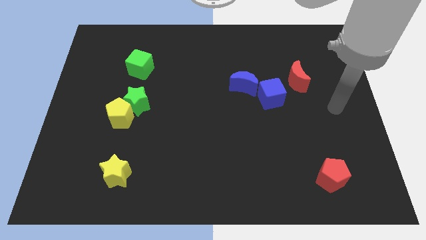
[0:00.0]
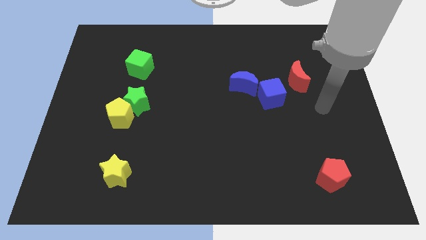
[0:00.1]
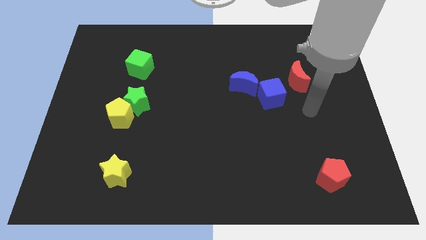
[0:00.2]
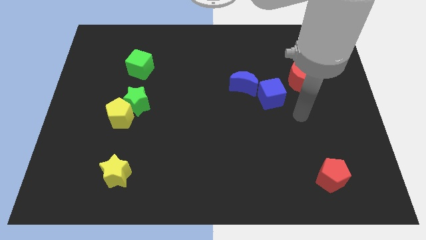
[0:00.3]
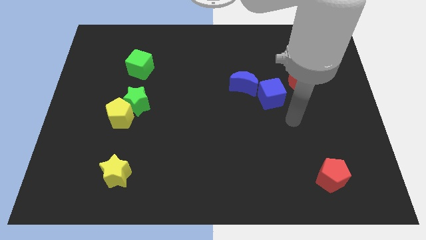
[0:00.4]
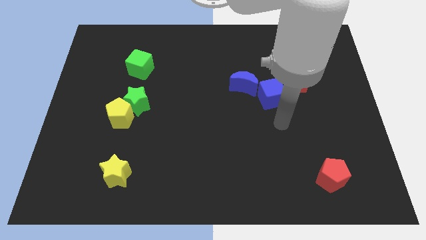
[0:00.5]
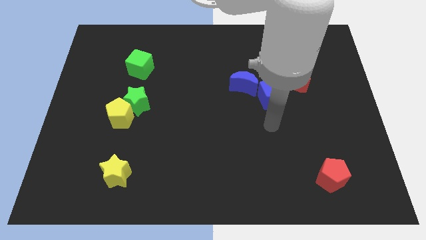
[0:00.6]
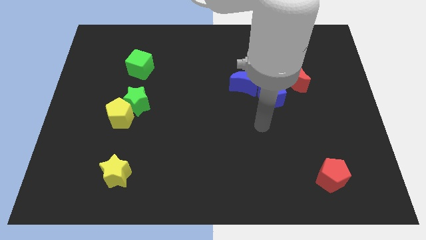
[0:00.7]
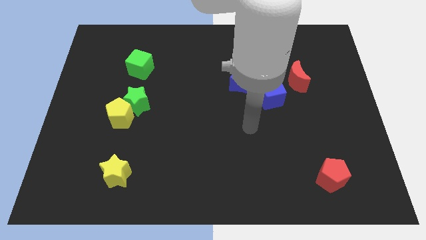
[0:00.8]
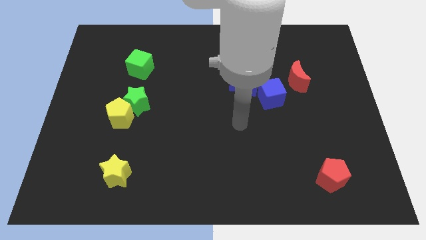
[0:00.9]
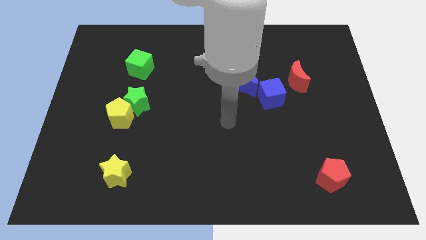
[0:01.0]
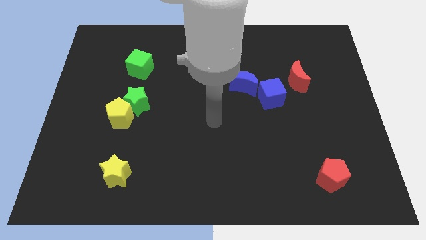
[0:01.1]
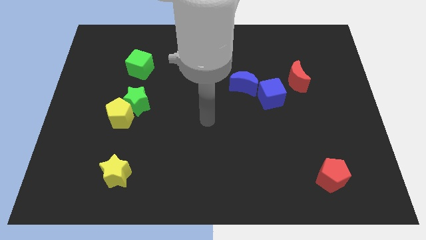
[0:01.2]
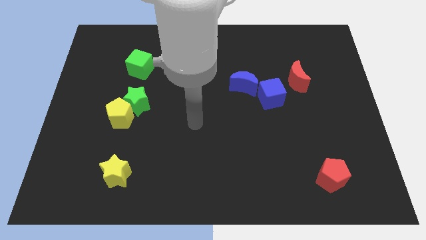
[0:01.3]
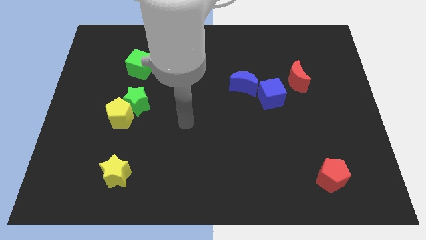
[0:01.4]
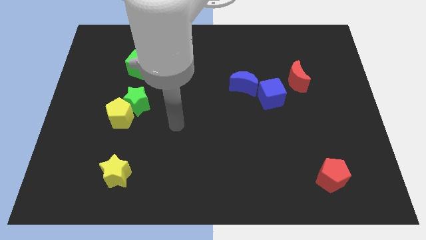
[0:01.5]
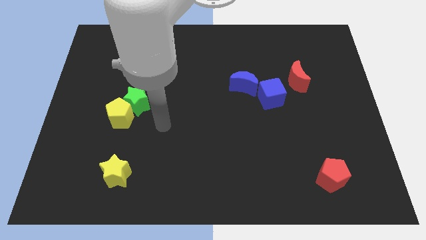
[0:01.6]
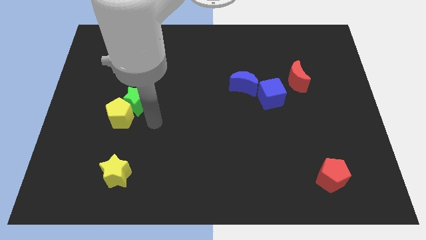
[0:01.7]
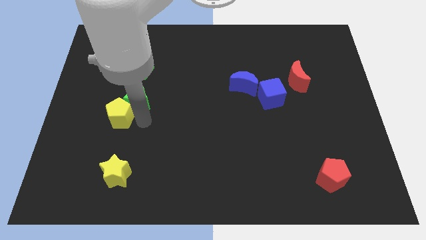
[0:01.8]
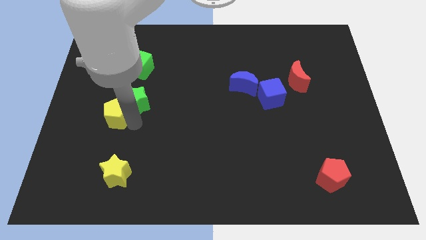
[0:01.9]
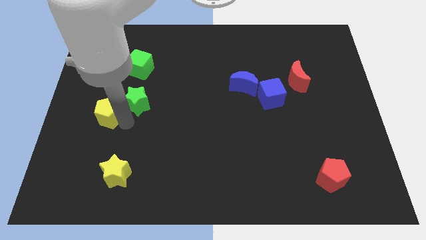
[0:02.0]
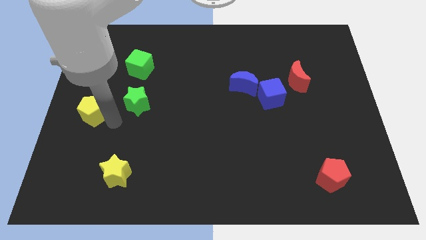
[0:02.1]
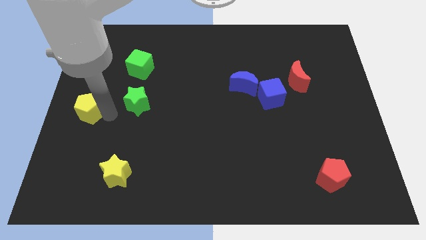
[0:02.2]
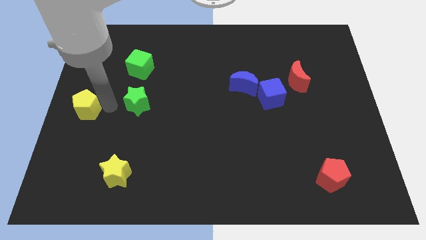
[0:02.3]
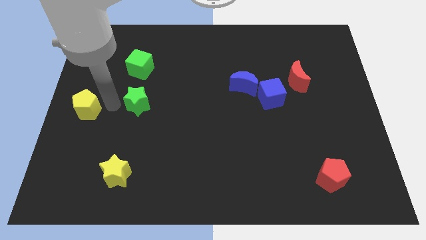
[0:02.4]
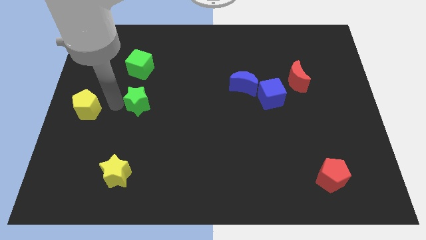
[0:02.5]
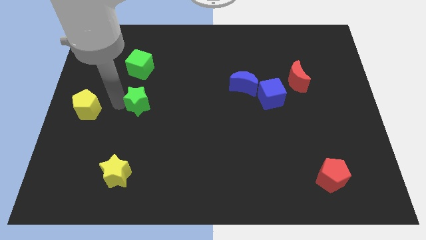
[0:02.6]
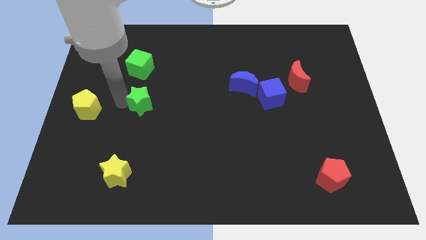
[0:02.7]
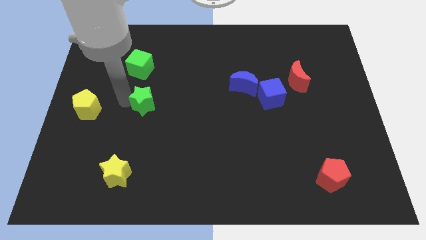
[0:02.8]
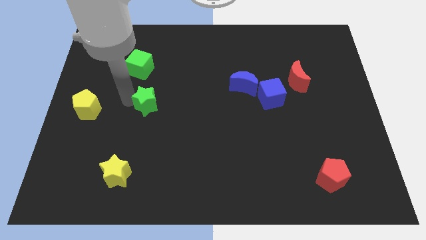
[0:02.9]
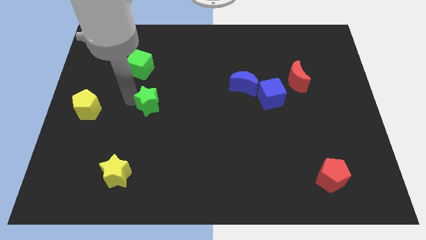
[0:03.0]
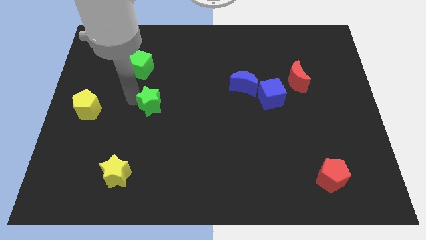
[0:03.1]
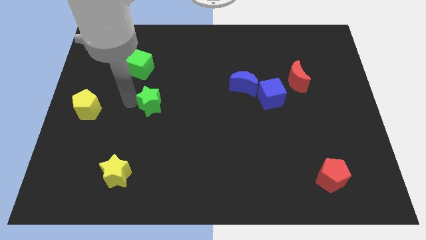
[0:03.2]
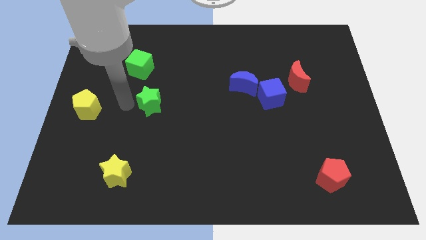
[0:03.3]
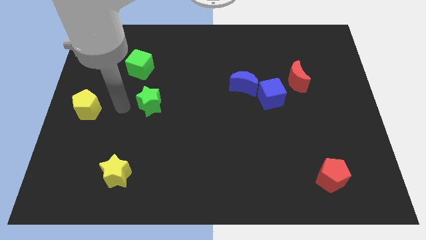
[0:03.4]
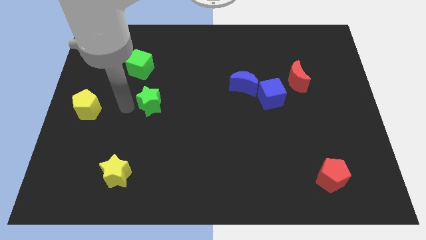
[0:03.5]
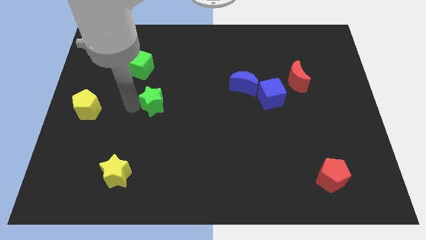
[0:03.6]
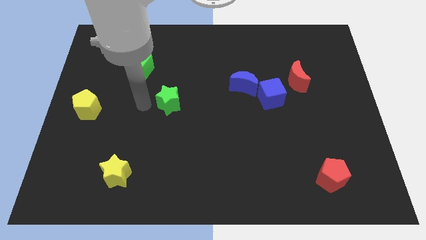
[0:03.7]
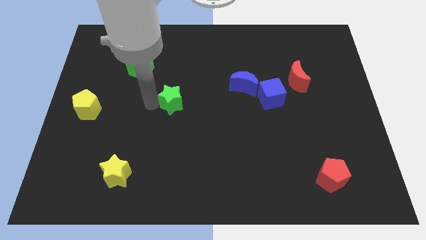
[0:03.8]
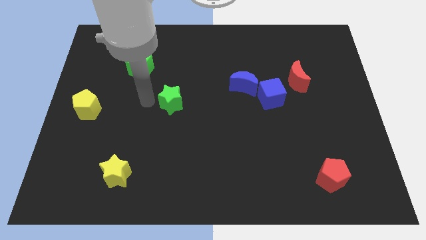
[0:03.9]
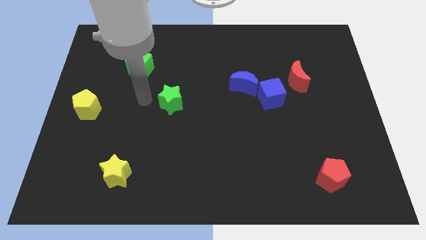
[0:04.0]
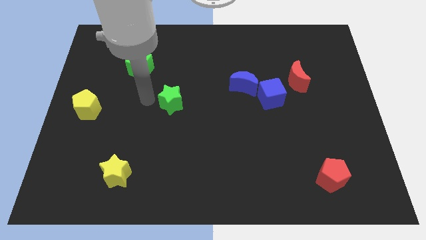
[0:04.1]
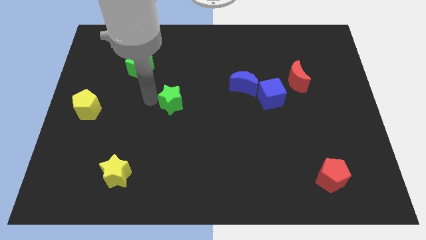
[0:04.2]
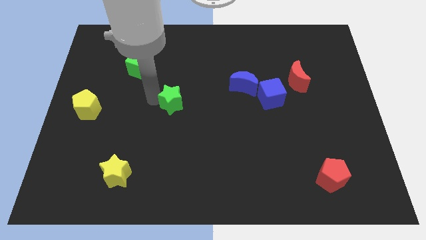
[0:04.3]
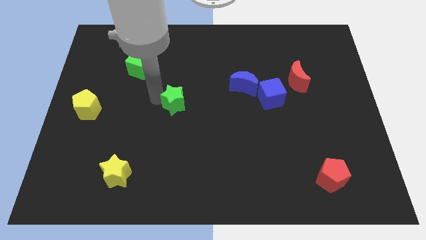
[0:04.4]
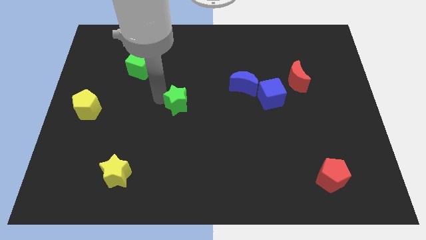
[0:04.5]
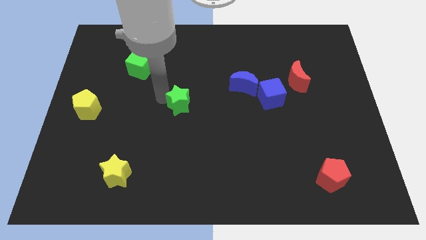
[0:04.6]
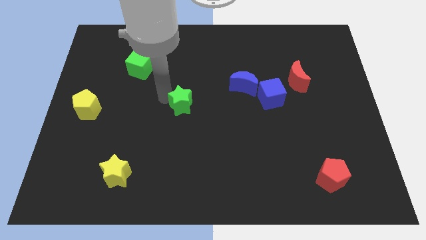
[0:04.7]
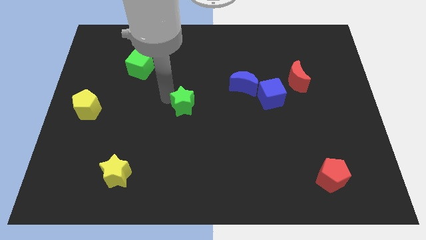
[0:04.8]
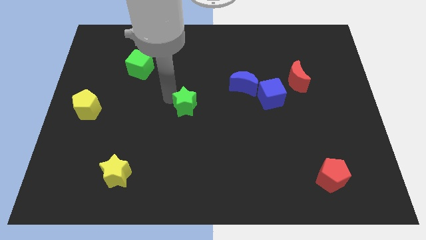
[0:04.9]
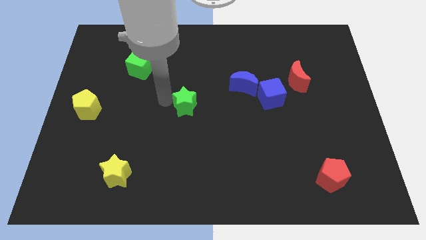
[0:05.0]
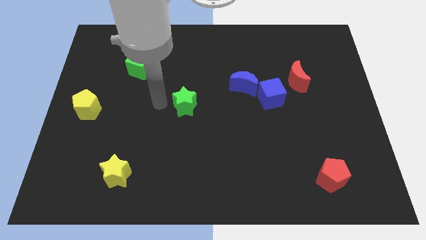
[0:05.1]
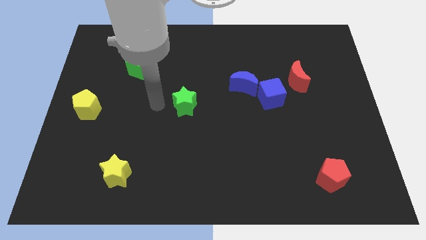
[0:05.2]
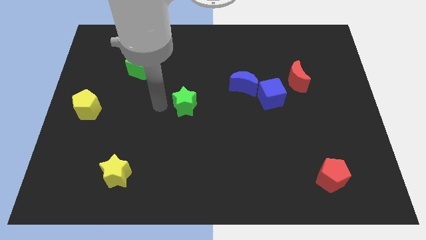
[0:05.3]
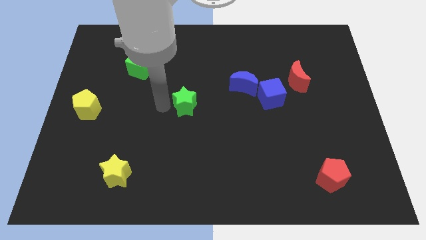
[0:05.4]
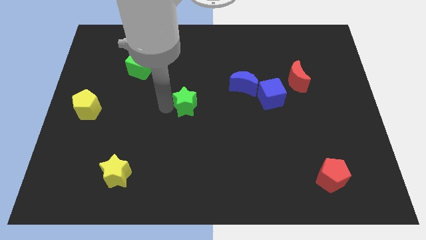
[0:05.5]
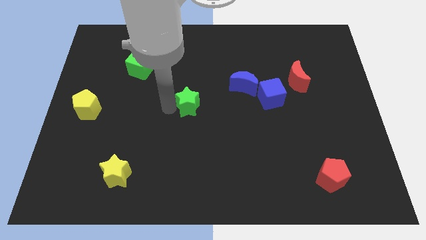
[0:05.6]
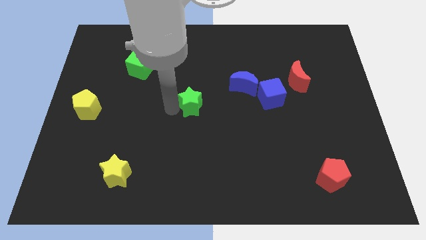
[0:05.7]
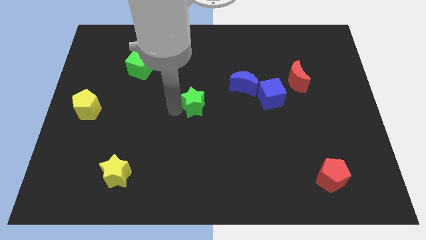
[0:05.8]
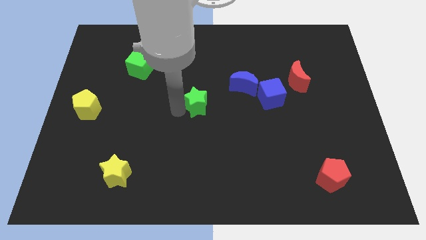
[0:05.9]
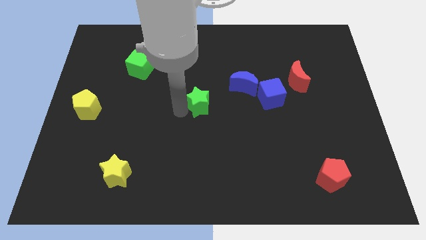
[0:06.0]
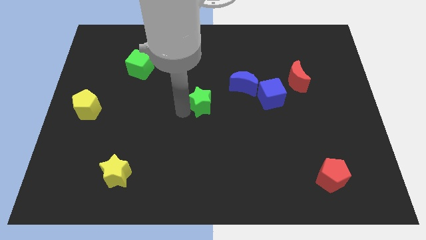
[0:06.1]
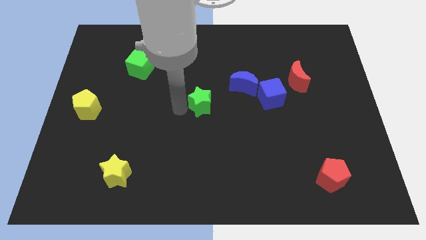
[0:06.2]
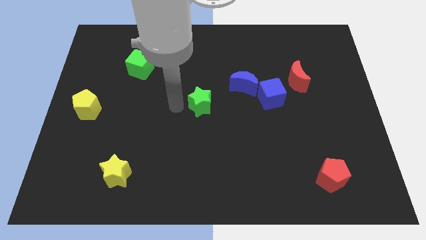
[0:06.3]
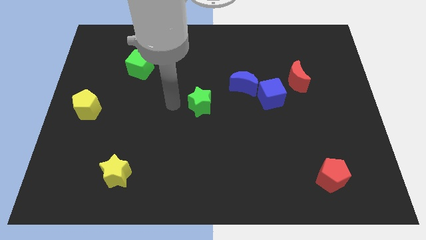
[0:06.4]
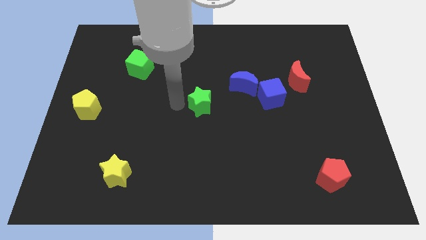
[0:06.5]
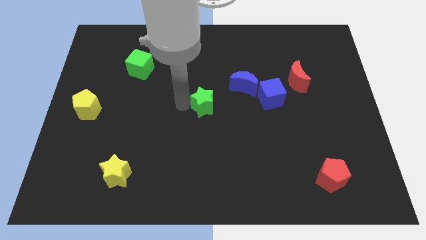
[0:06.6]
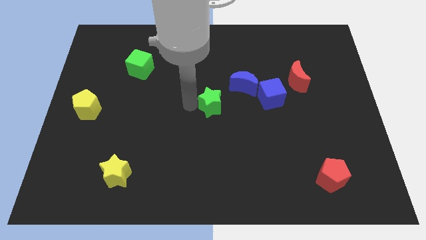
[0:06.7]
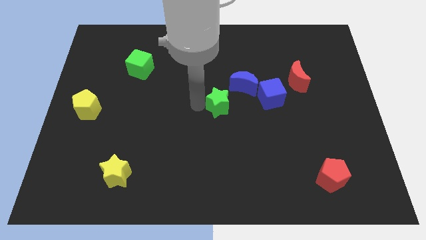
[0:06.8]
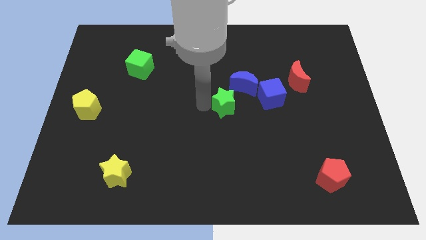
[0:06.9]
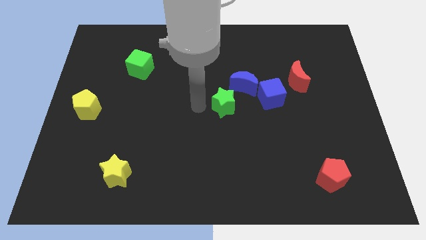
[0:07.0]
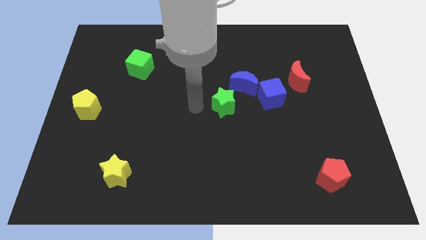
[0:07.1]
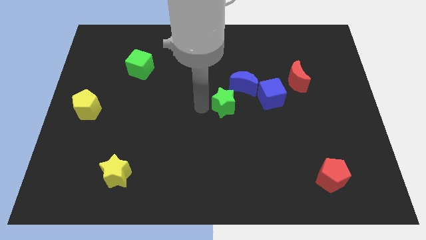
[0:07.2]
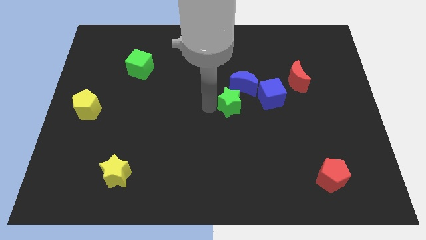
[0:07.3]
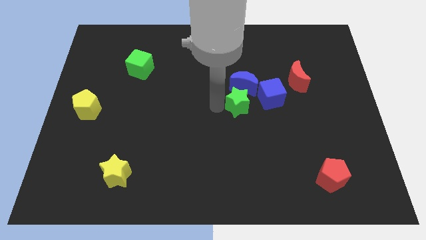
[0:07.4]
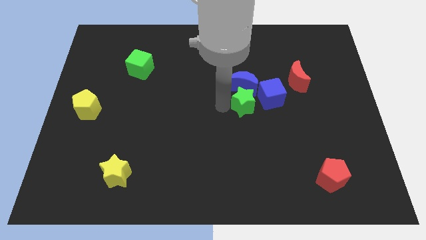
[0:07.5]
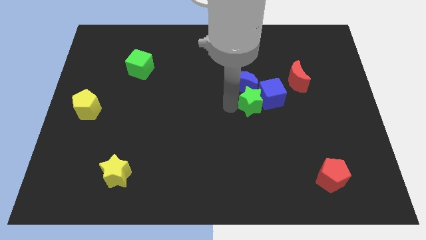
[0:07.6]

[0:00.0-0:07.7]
move the green star to the blue cube
